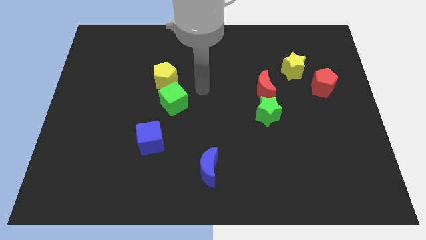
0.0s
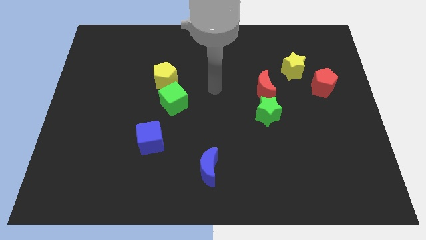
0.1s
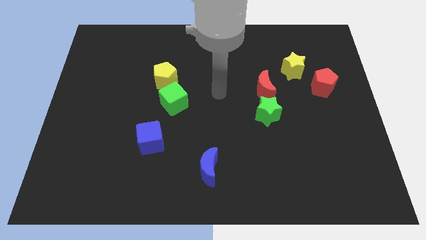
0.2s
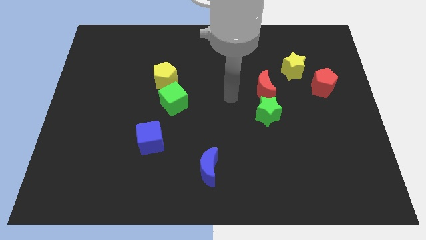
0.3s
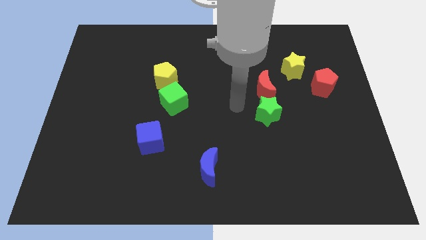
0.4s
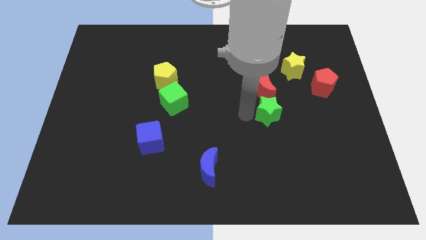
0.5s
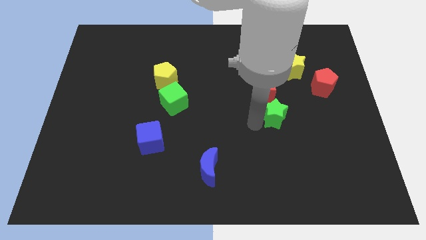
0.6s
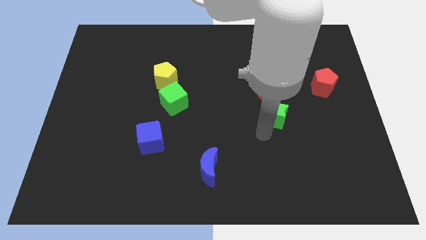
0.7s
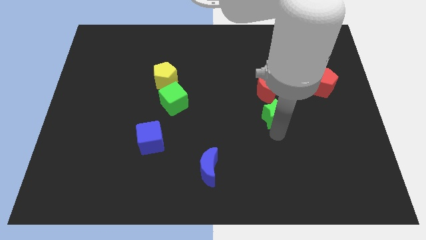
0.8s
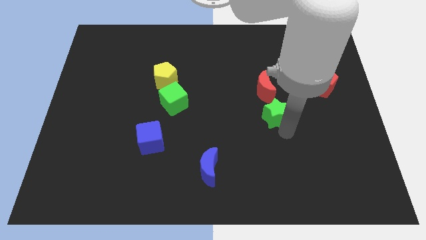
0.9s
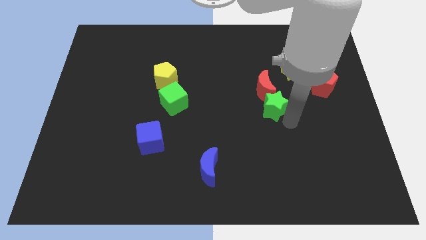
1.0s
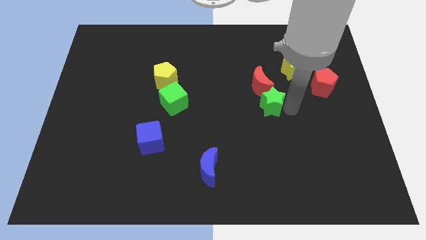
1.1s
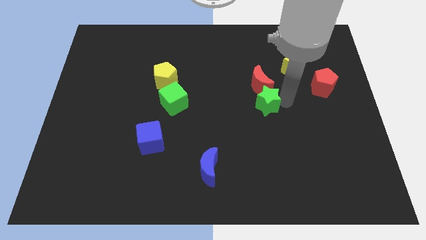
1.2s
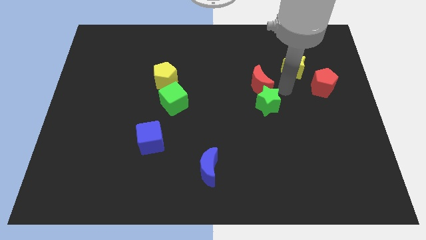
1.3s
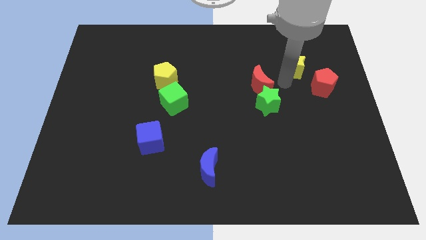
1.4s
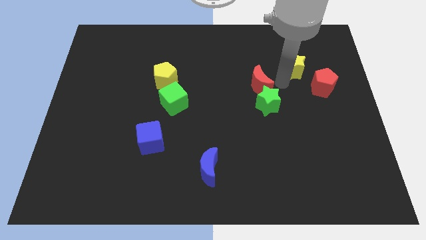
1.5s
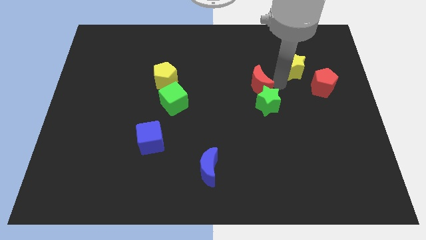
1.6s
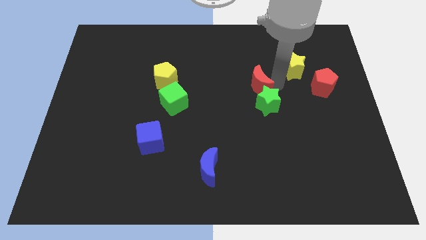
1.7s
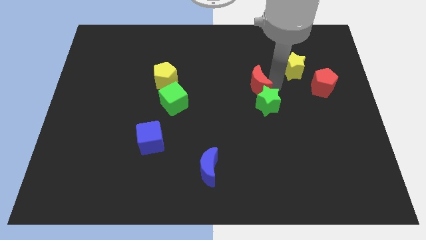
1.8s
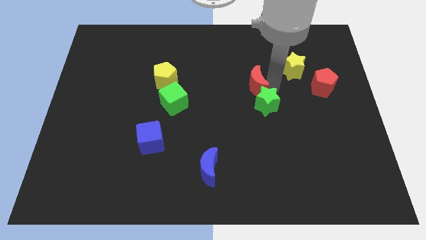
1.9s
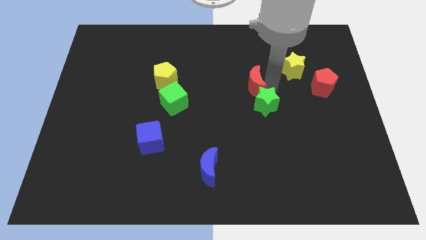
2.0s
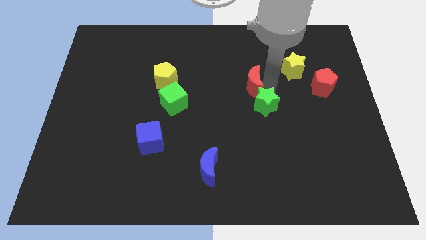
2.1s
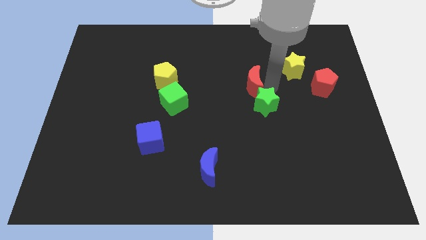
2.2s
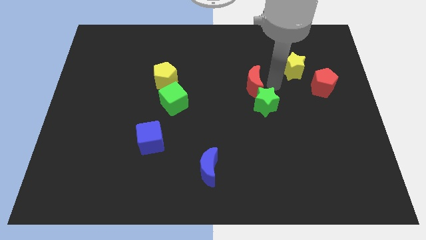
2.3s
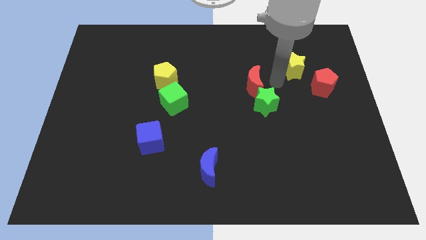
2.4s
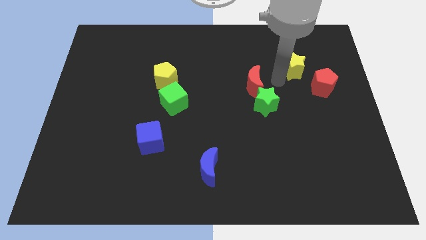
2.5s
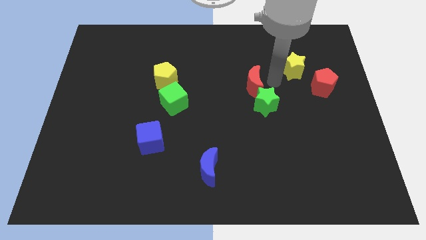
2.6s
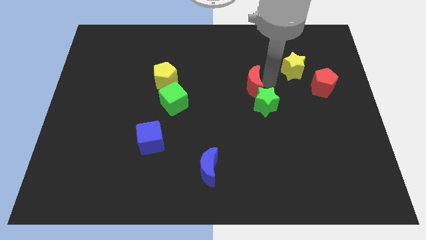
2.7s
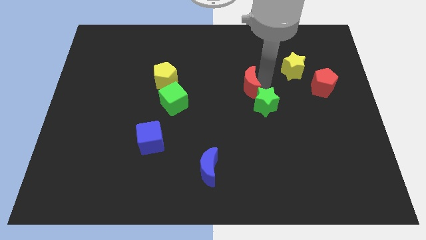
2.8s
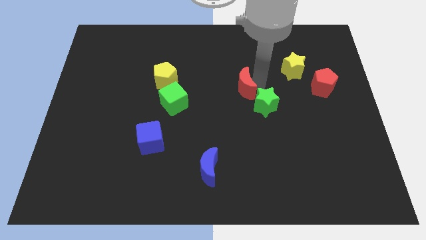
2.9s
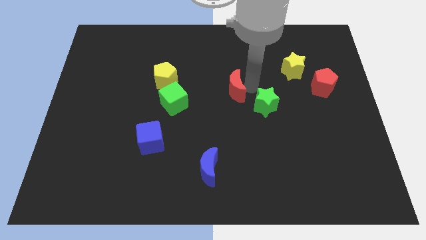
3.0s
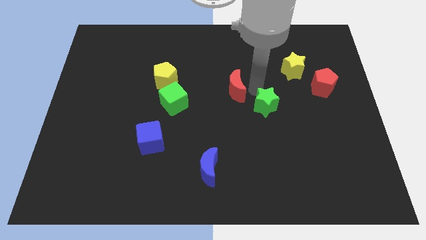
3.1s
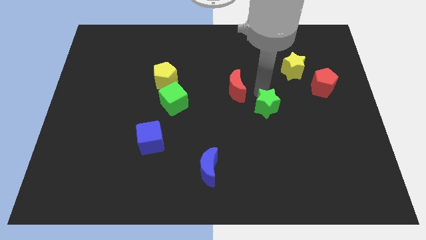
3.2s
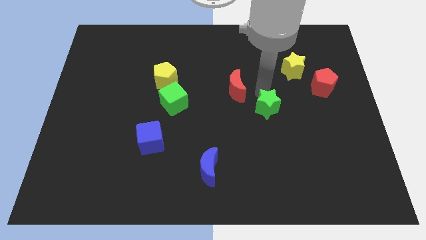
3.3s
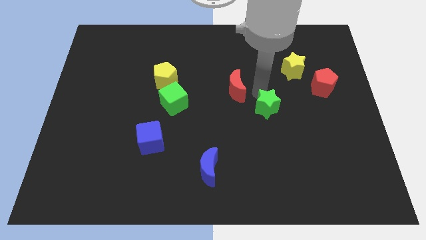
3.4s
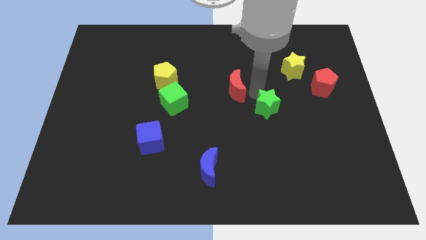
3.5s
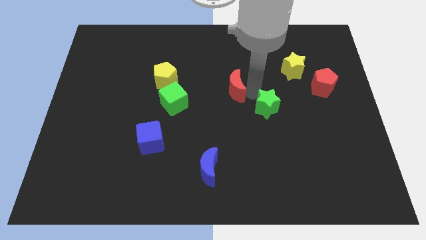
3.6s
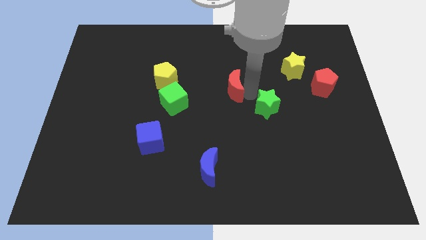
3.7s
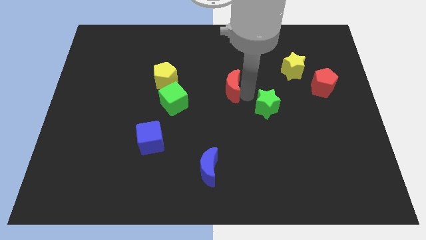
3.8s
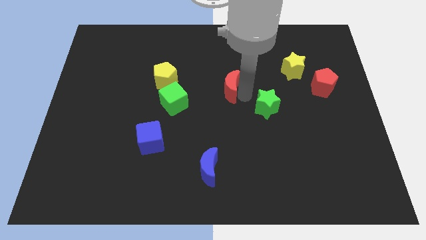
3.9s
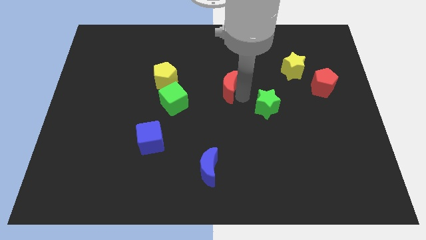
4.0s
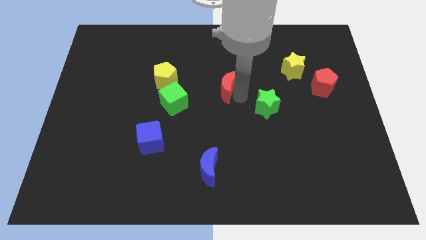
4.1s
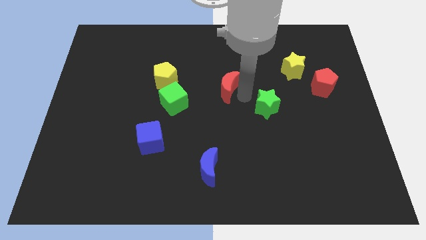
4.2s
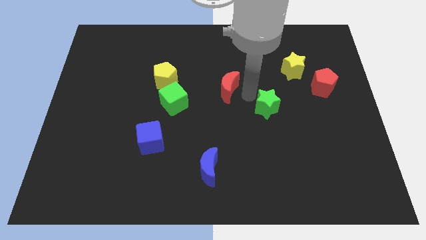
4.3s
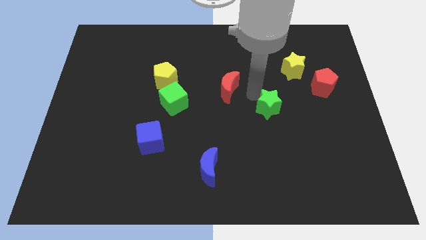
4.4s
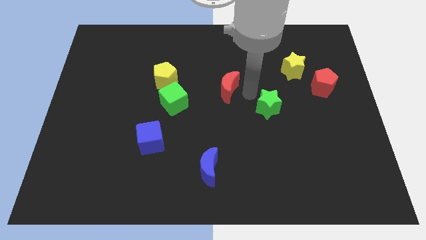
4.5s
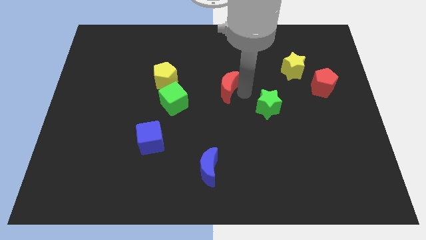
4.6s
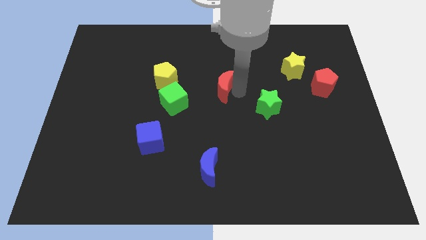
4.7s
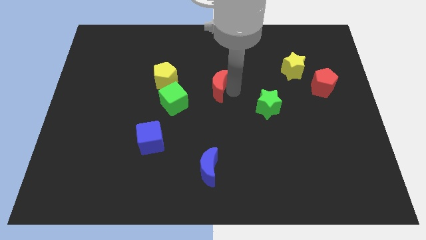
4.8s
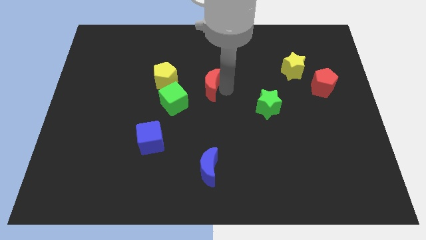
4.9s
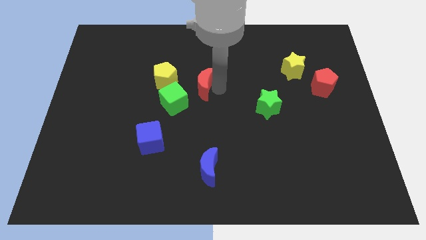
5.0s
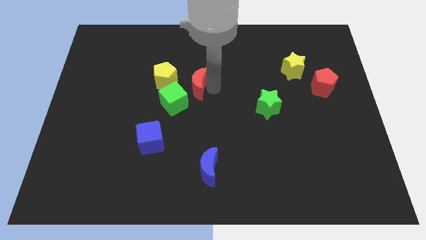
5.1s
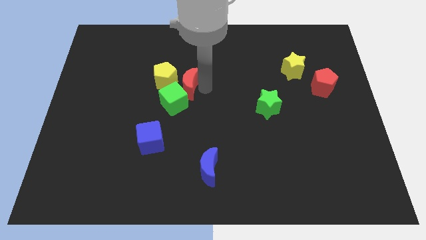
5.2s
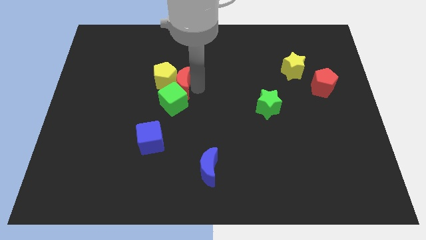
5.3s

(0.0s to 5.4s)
put the red moon to the yellow pentagon

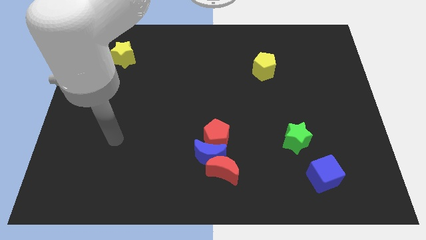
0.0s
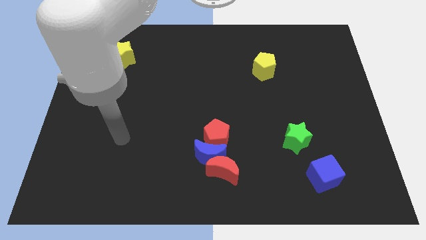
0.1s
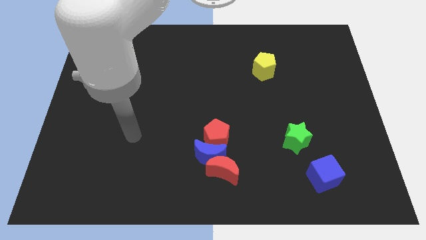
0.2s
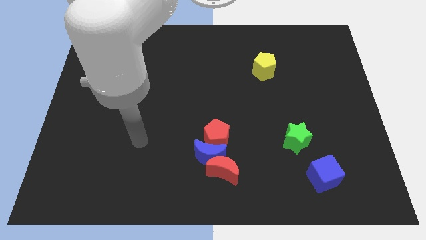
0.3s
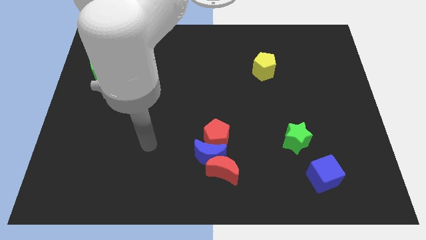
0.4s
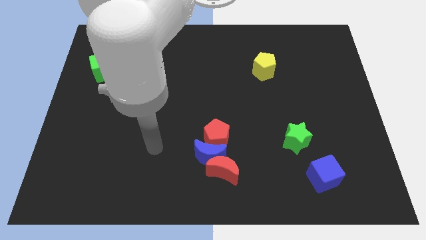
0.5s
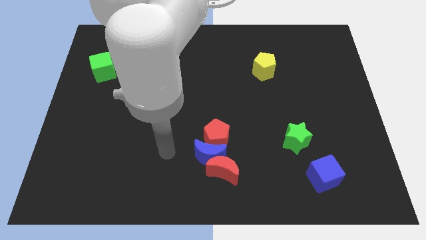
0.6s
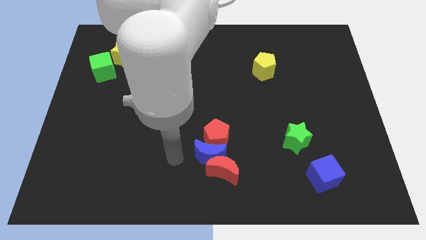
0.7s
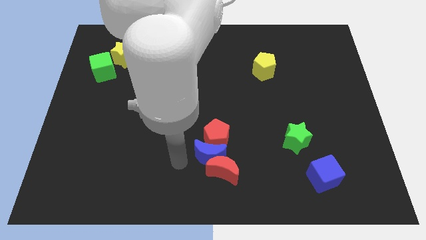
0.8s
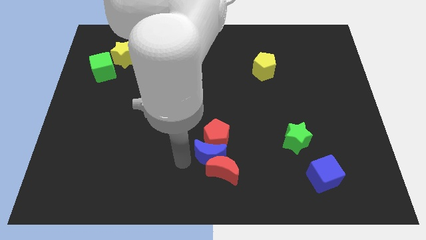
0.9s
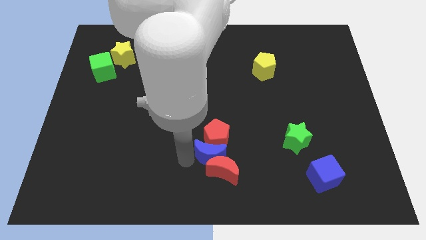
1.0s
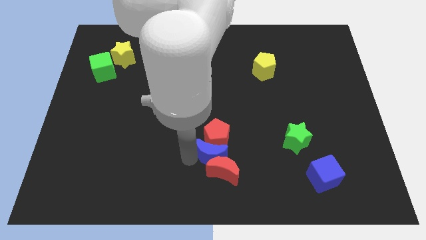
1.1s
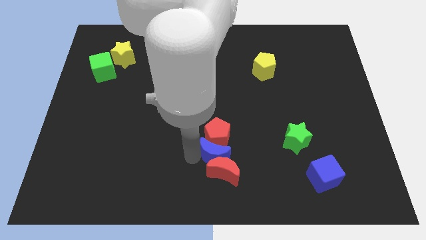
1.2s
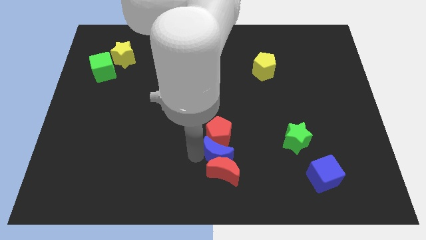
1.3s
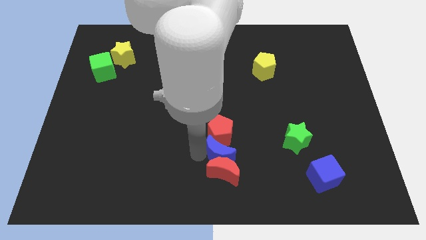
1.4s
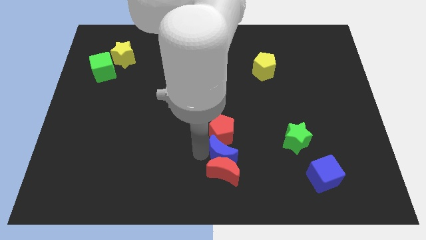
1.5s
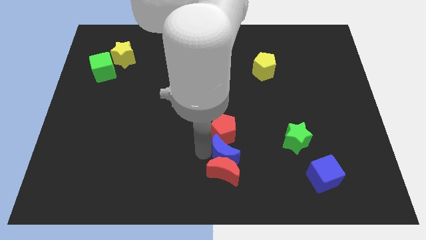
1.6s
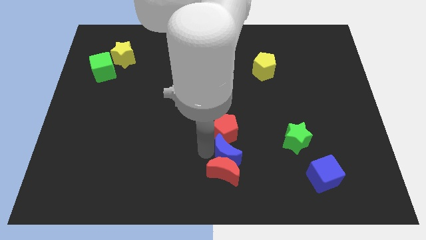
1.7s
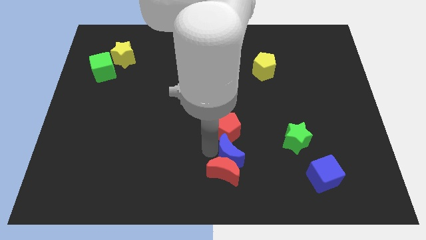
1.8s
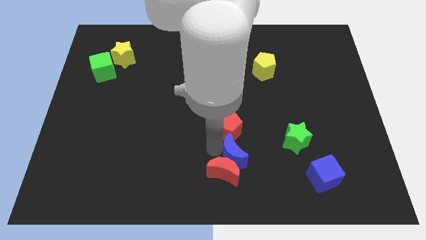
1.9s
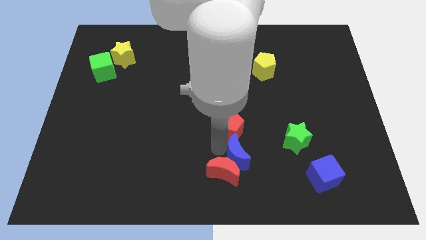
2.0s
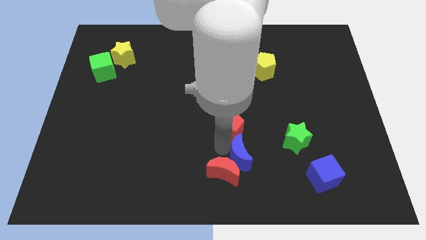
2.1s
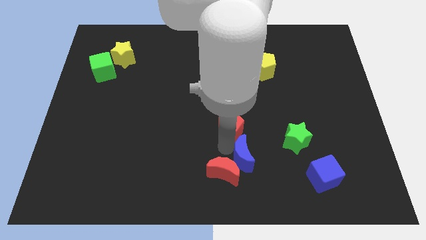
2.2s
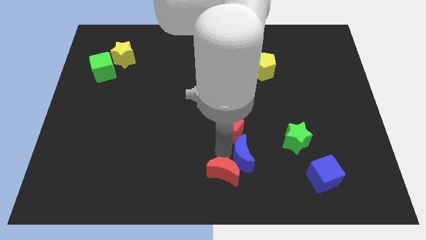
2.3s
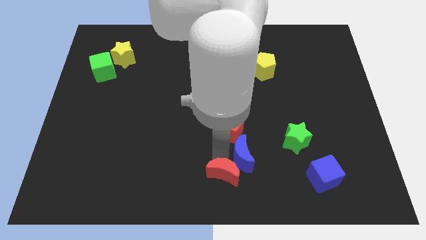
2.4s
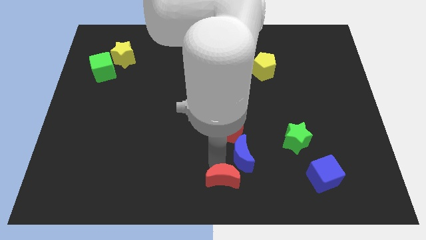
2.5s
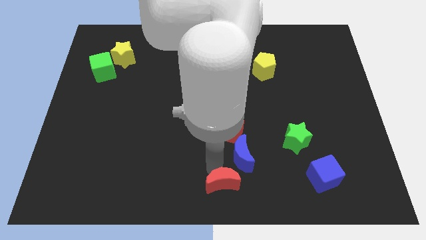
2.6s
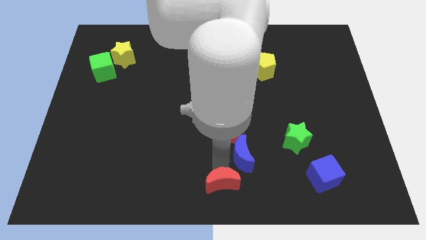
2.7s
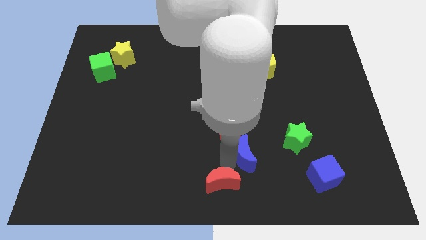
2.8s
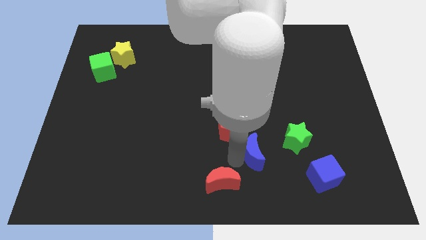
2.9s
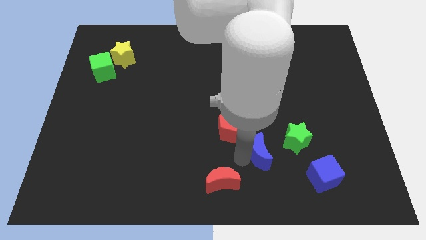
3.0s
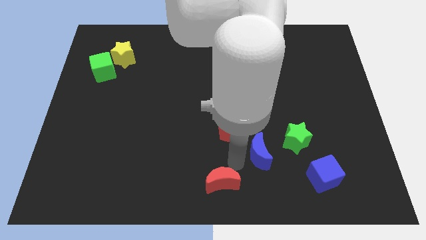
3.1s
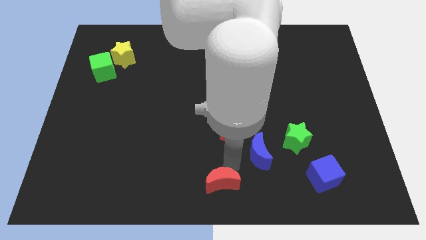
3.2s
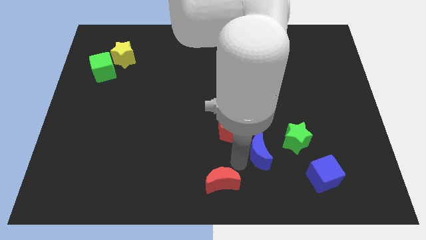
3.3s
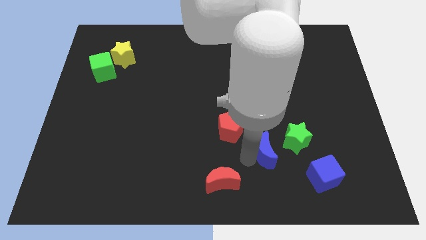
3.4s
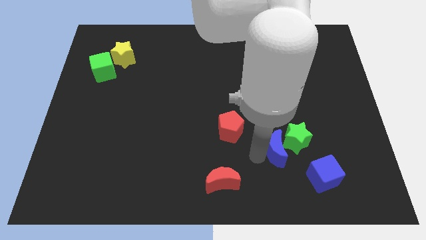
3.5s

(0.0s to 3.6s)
push the blue moon to the green star
